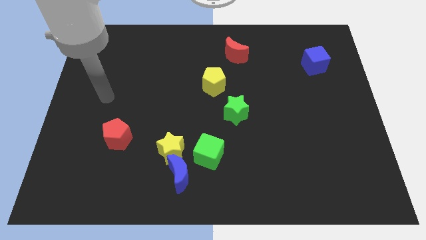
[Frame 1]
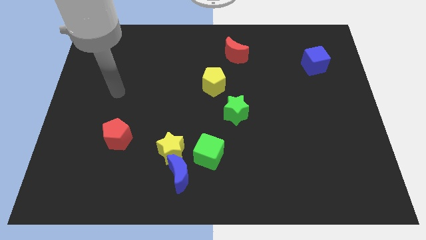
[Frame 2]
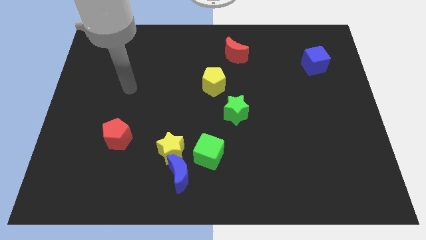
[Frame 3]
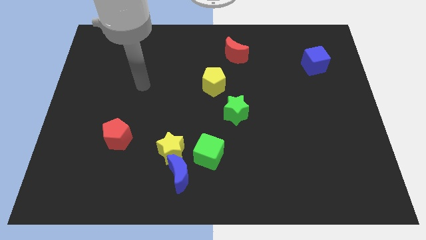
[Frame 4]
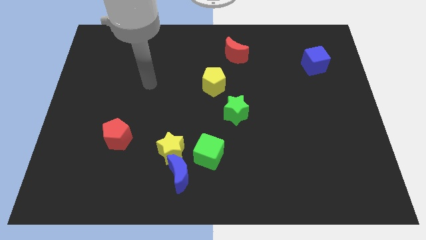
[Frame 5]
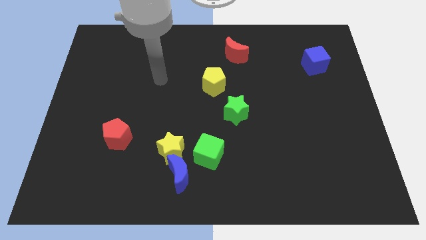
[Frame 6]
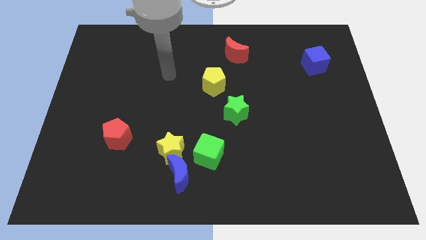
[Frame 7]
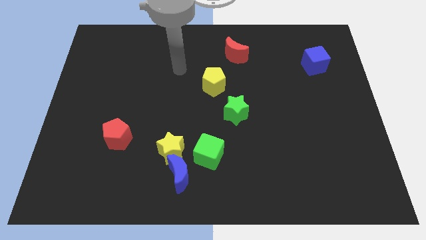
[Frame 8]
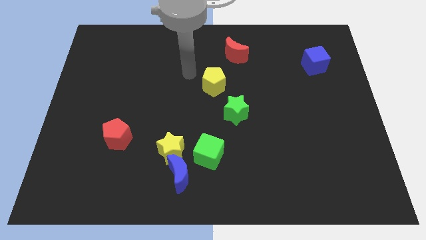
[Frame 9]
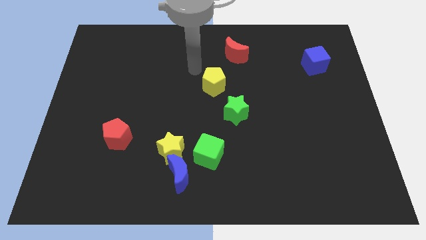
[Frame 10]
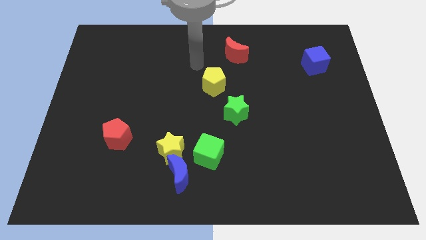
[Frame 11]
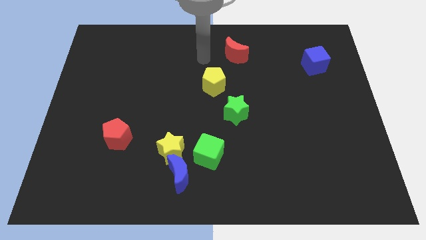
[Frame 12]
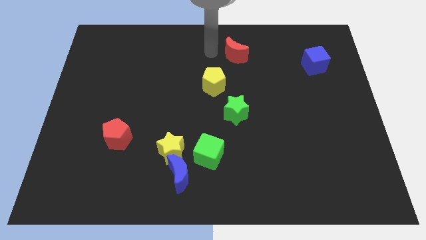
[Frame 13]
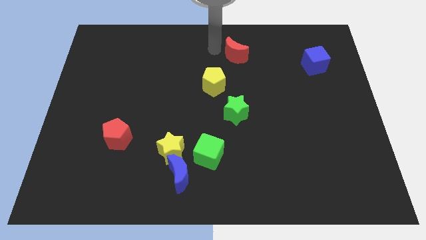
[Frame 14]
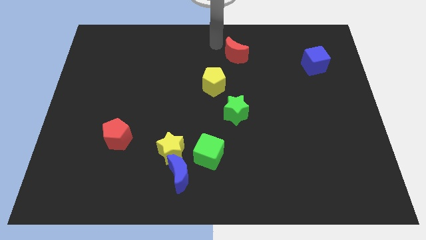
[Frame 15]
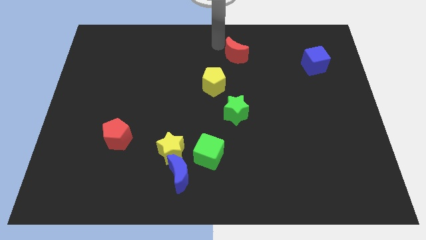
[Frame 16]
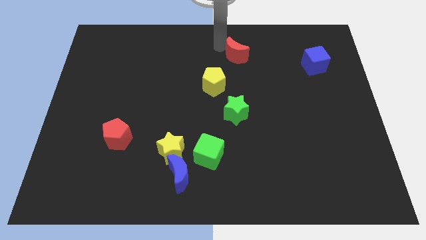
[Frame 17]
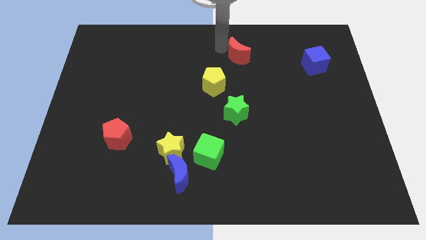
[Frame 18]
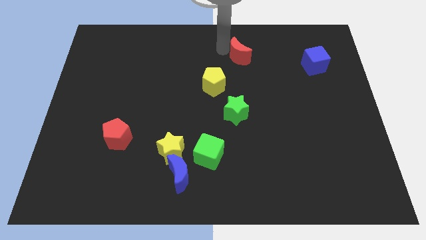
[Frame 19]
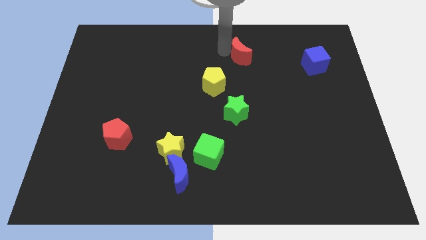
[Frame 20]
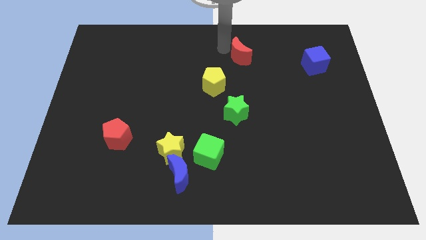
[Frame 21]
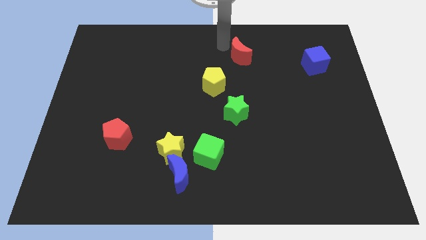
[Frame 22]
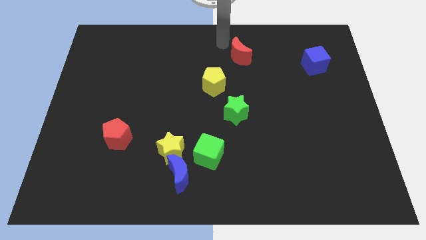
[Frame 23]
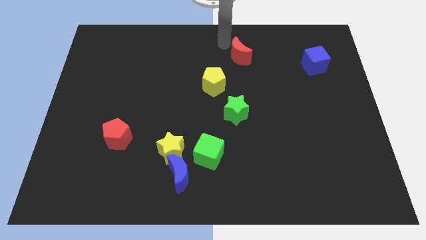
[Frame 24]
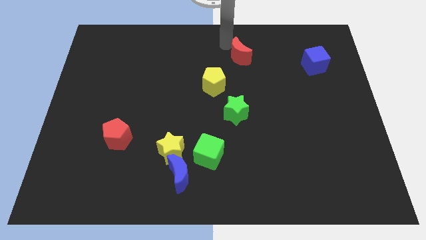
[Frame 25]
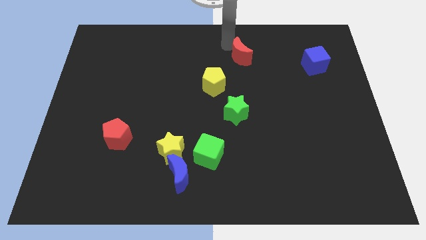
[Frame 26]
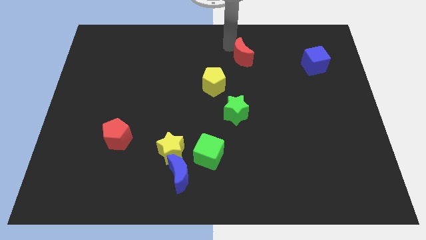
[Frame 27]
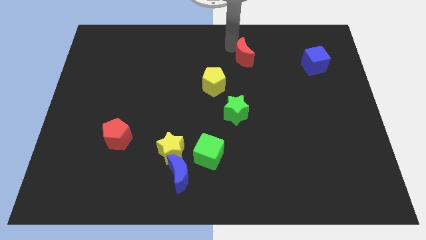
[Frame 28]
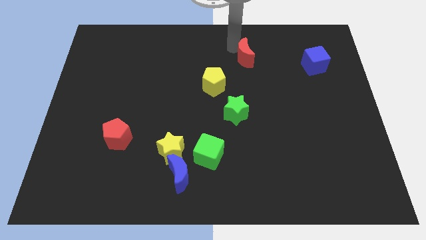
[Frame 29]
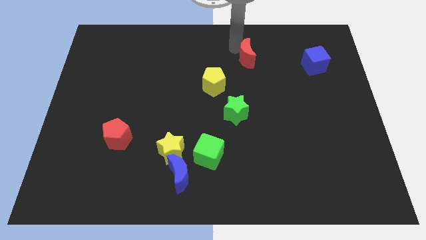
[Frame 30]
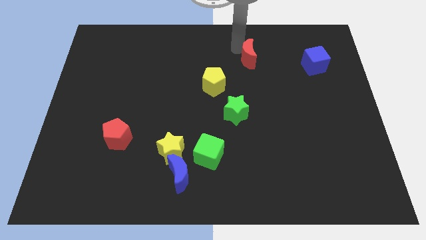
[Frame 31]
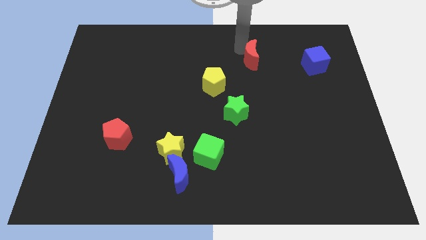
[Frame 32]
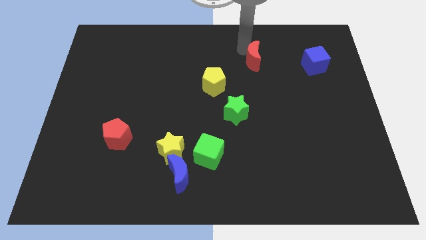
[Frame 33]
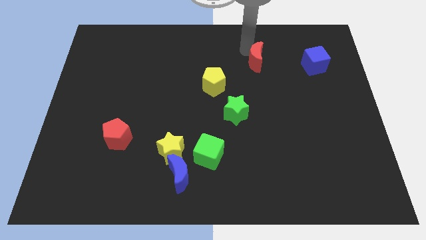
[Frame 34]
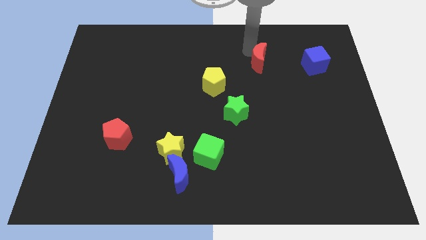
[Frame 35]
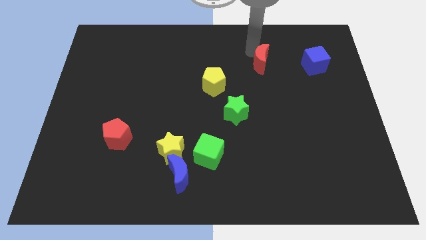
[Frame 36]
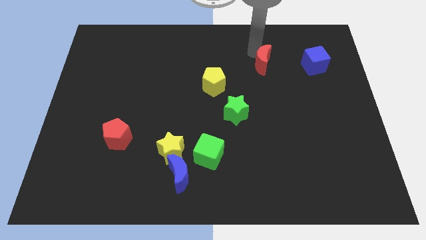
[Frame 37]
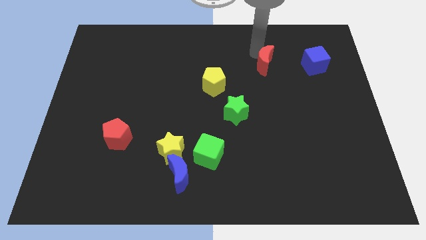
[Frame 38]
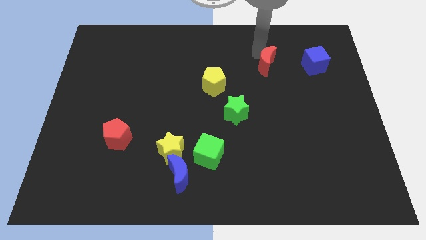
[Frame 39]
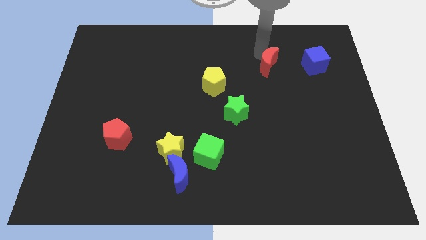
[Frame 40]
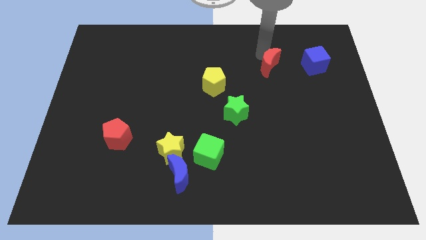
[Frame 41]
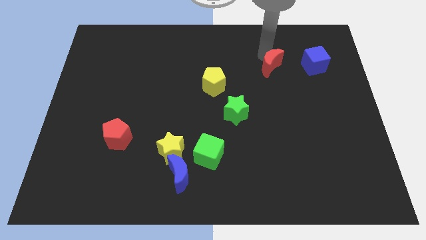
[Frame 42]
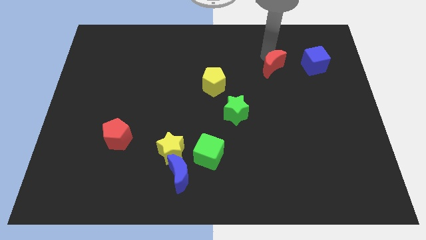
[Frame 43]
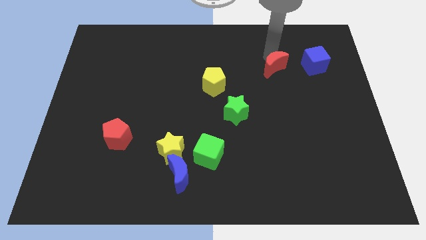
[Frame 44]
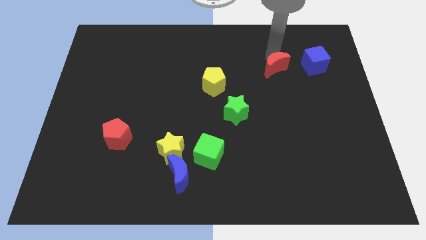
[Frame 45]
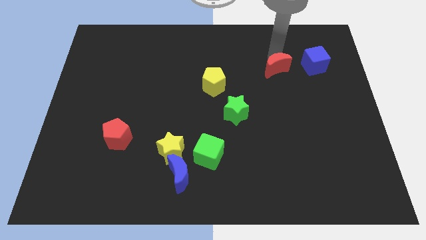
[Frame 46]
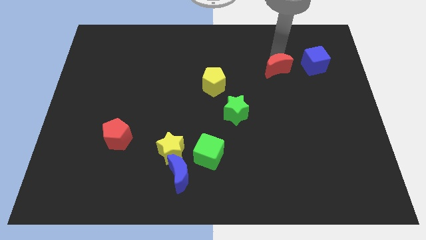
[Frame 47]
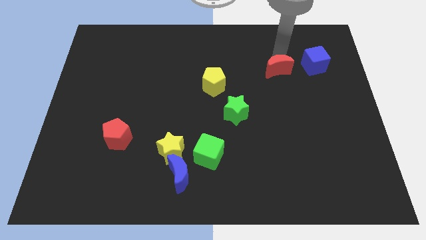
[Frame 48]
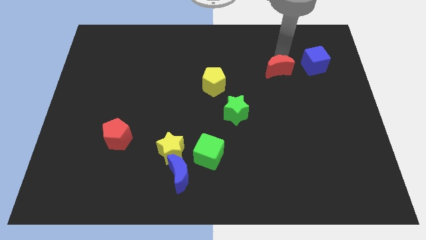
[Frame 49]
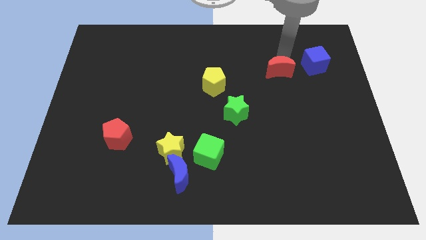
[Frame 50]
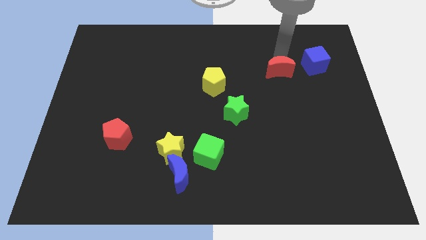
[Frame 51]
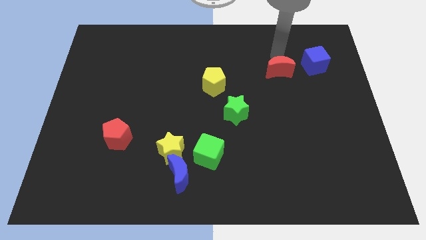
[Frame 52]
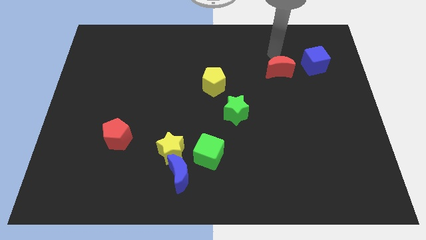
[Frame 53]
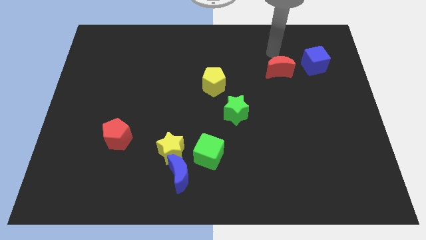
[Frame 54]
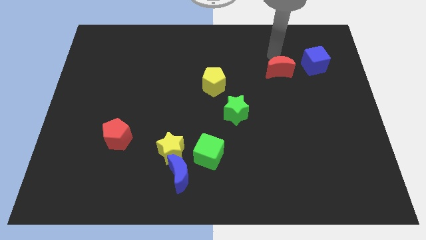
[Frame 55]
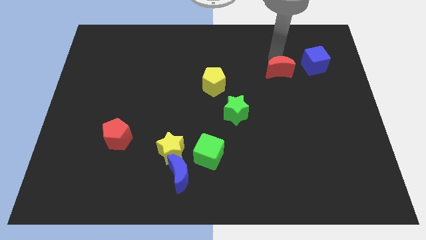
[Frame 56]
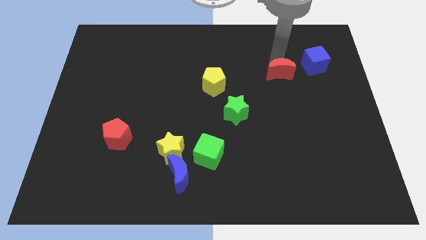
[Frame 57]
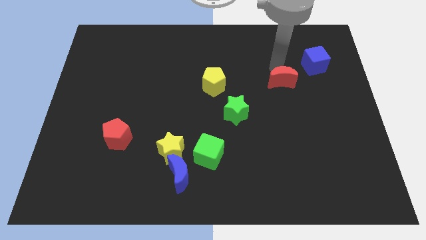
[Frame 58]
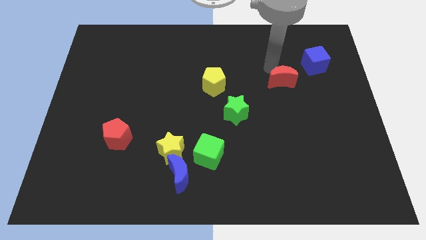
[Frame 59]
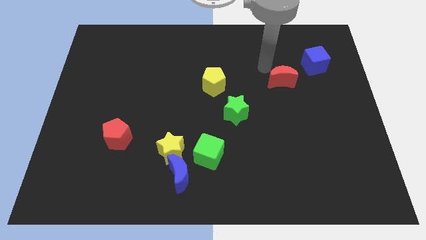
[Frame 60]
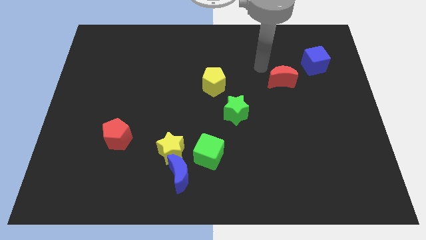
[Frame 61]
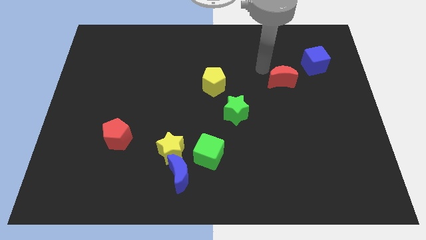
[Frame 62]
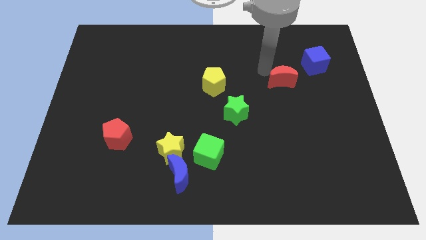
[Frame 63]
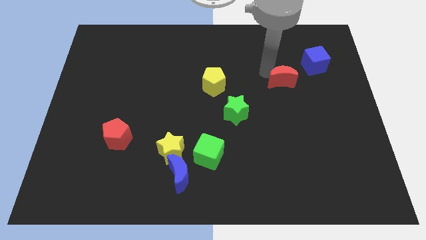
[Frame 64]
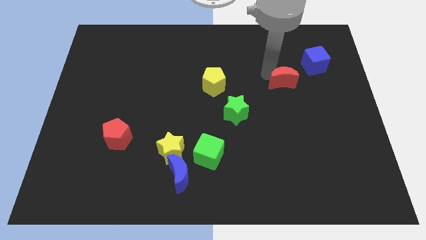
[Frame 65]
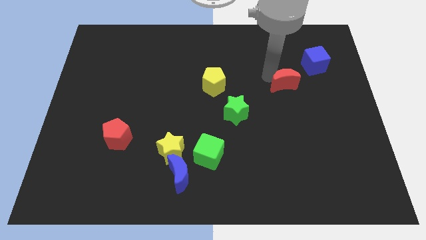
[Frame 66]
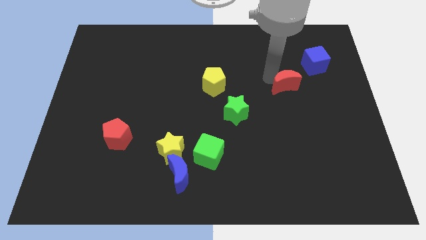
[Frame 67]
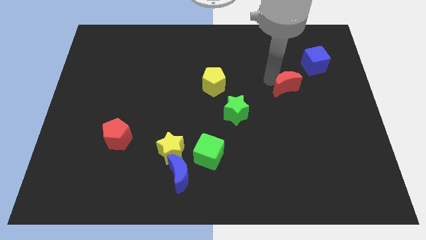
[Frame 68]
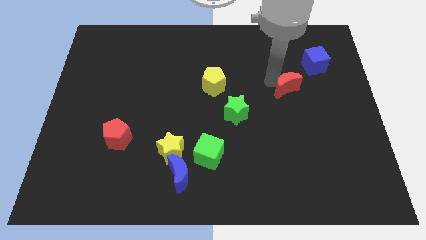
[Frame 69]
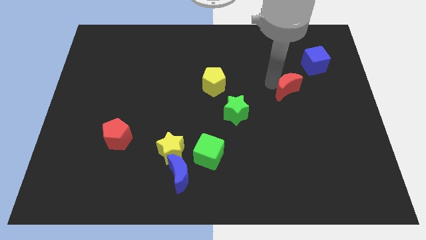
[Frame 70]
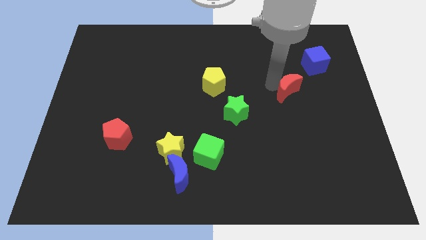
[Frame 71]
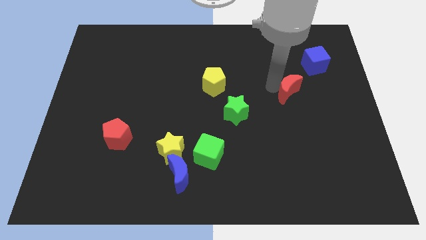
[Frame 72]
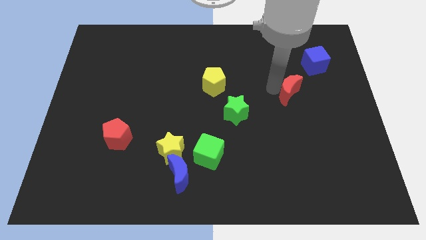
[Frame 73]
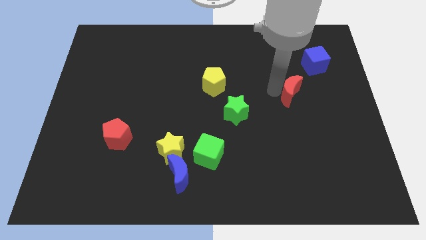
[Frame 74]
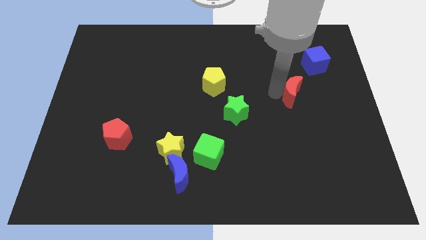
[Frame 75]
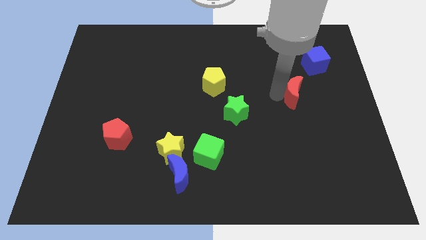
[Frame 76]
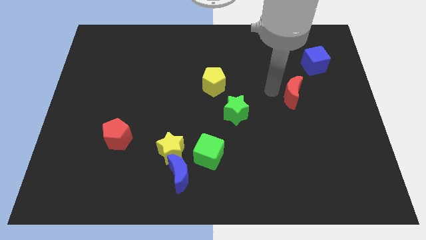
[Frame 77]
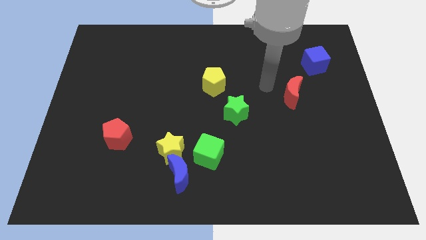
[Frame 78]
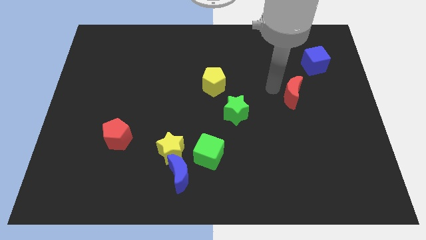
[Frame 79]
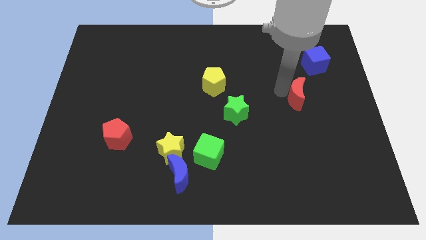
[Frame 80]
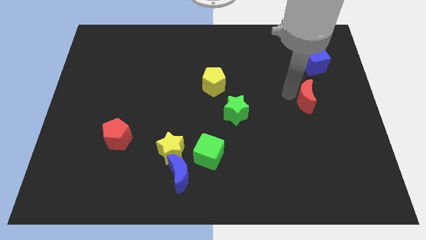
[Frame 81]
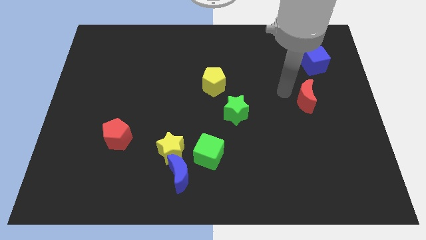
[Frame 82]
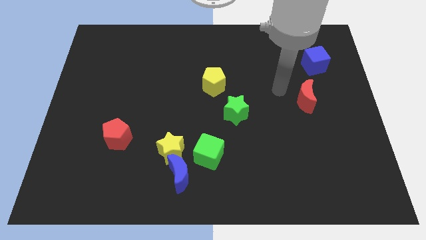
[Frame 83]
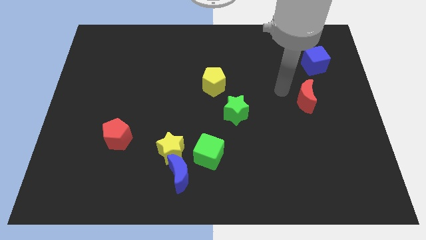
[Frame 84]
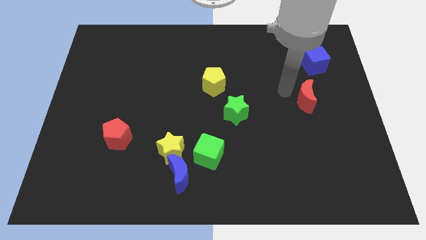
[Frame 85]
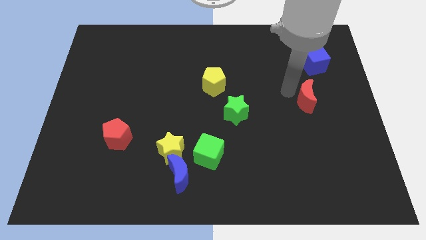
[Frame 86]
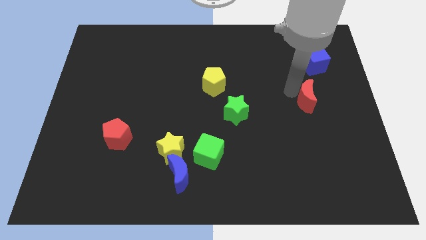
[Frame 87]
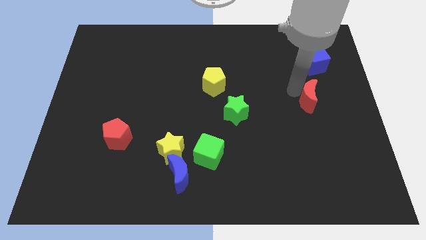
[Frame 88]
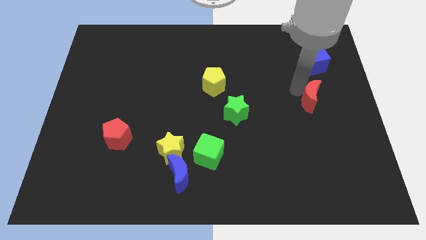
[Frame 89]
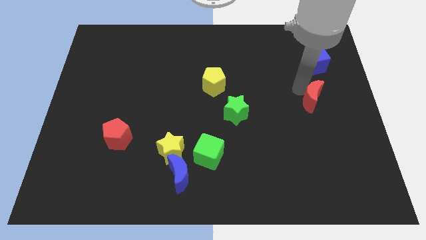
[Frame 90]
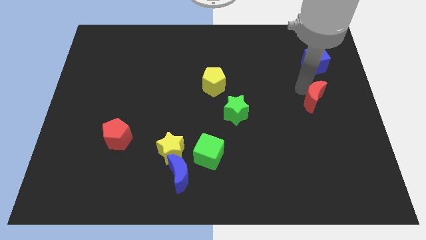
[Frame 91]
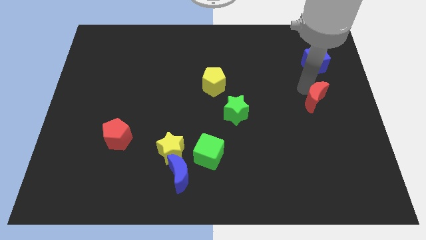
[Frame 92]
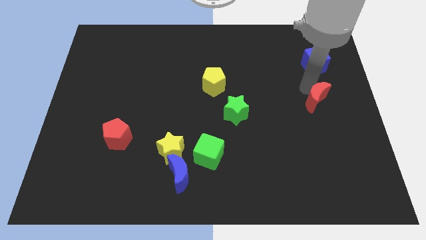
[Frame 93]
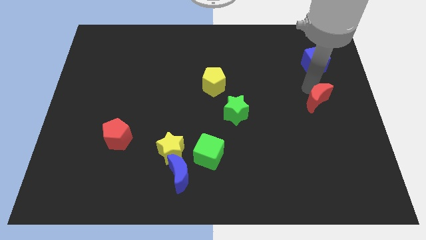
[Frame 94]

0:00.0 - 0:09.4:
put the red moon to the right side of the board
